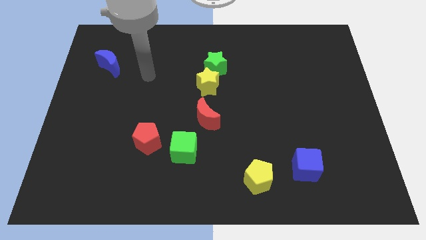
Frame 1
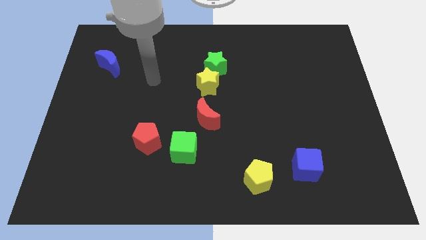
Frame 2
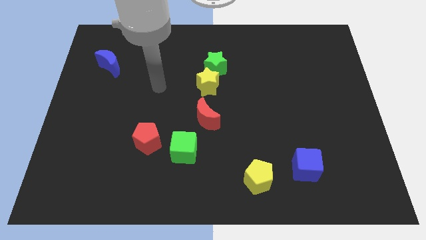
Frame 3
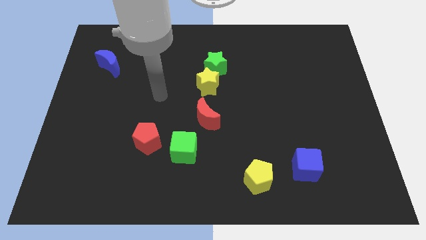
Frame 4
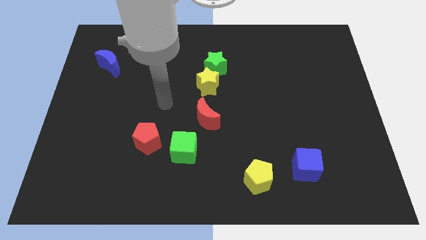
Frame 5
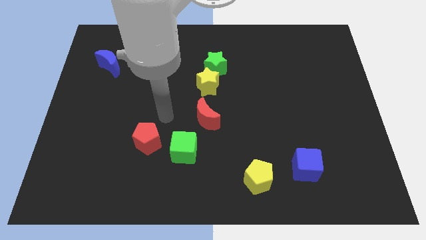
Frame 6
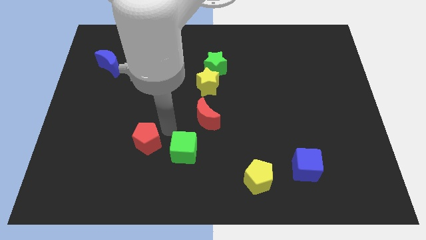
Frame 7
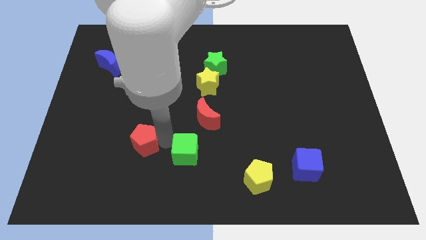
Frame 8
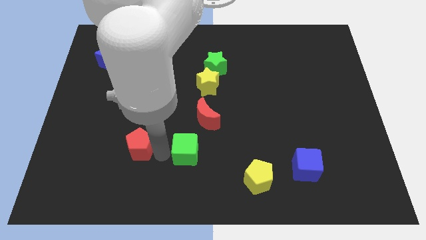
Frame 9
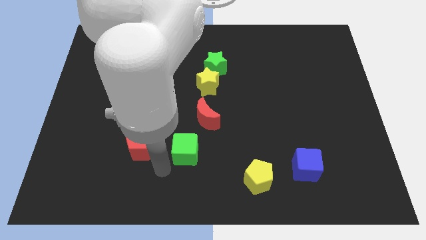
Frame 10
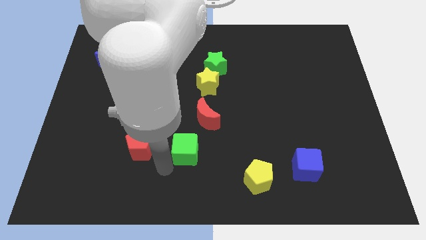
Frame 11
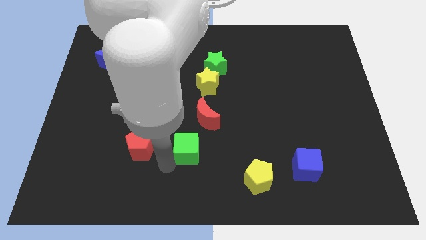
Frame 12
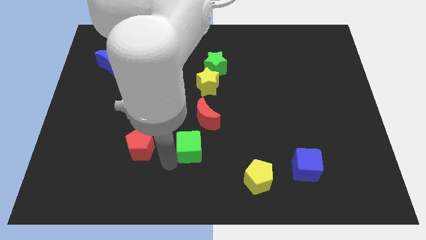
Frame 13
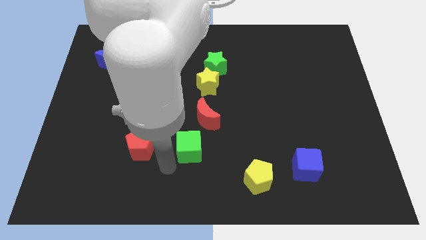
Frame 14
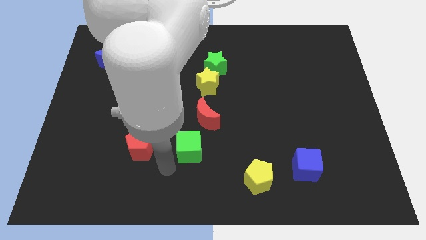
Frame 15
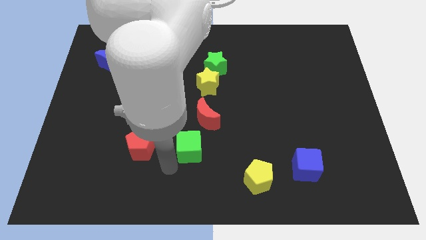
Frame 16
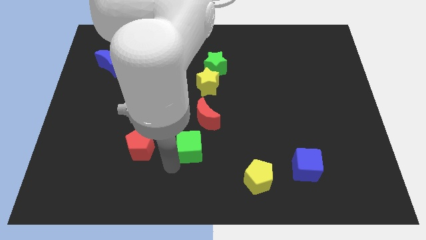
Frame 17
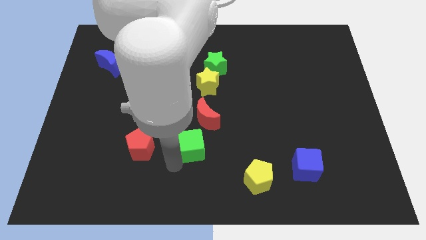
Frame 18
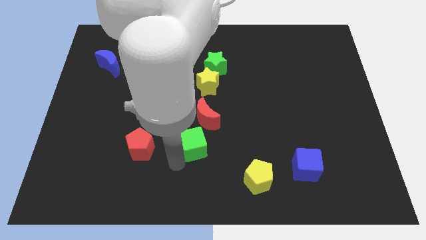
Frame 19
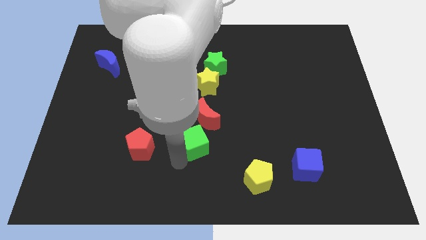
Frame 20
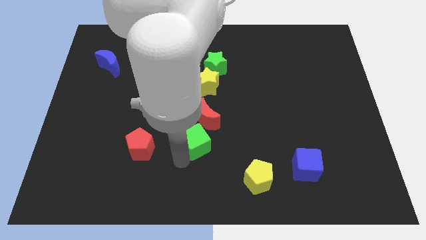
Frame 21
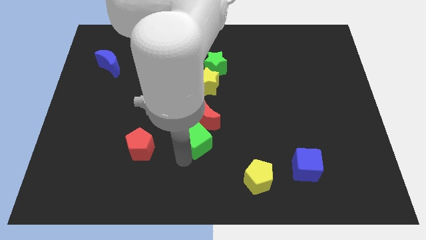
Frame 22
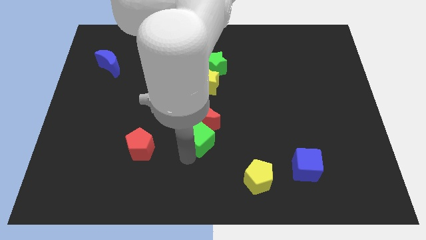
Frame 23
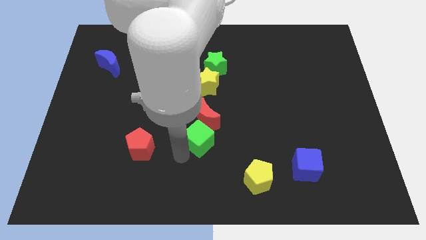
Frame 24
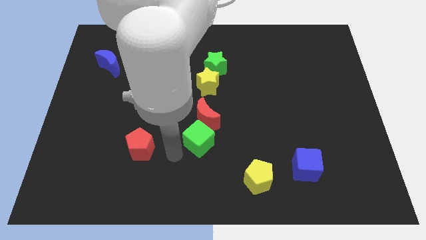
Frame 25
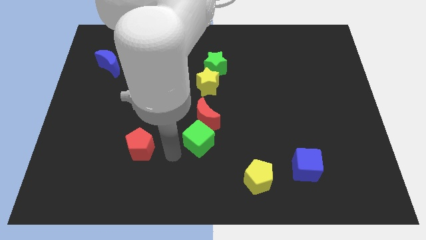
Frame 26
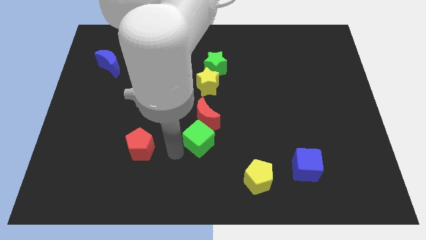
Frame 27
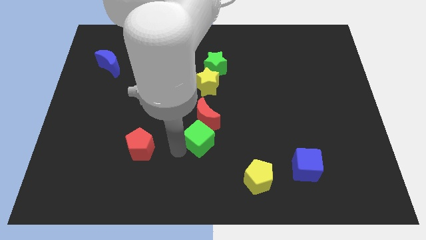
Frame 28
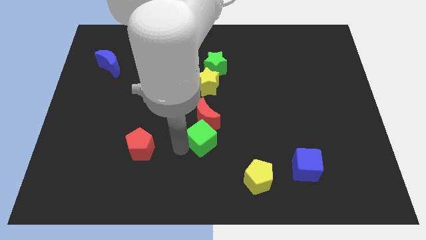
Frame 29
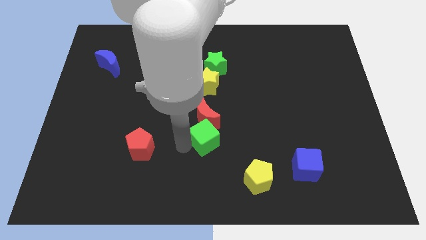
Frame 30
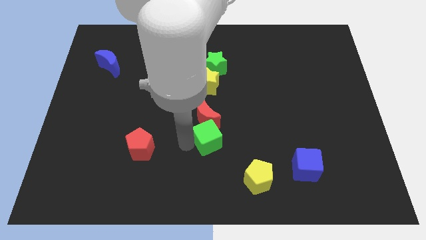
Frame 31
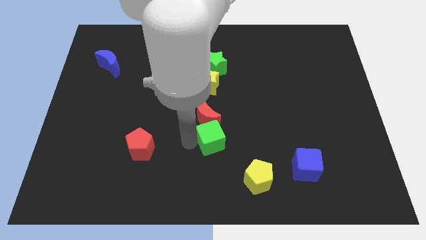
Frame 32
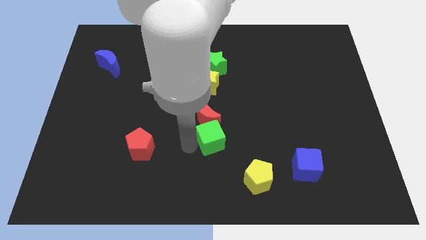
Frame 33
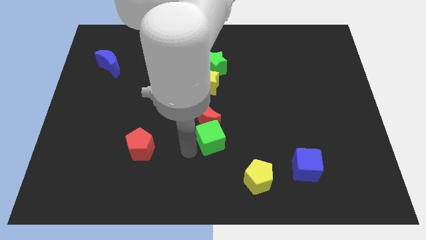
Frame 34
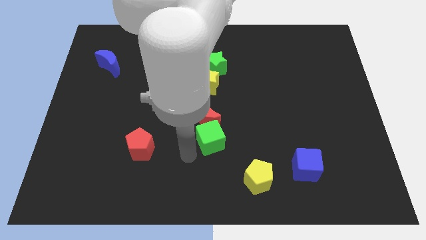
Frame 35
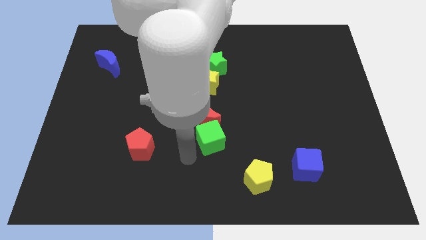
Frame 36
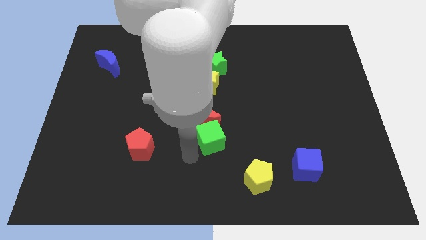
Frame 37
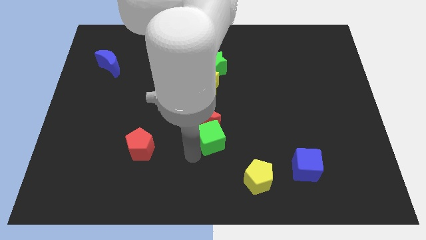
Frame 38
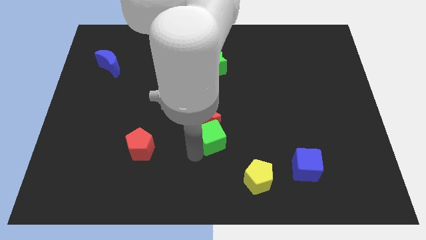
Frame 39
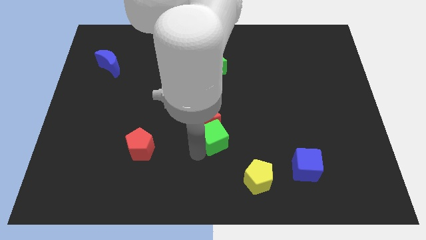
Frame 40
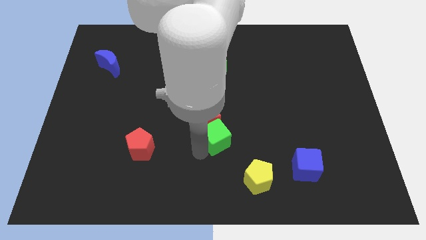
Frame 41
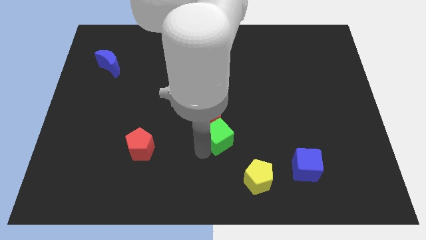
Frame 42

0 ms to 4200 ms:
slightly slide the green cube up and then to the right

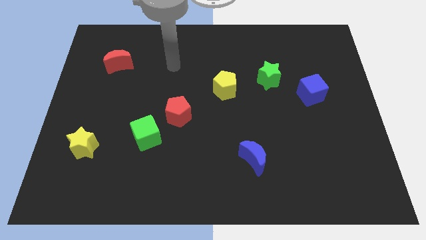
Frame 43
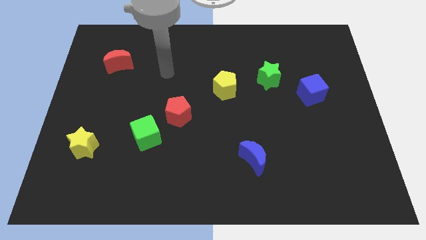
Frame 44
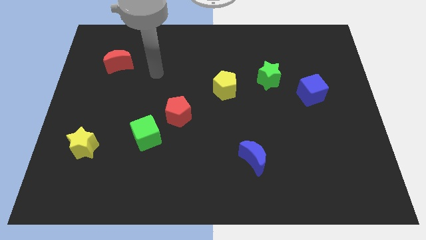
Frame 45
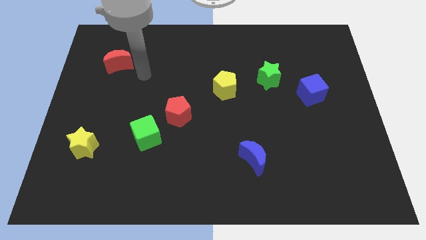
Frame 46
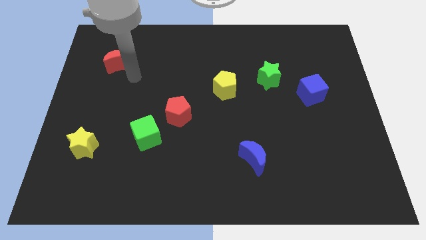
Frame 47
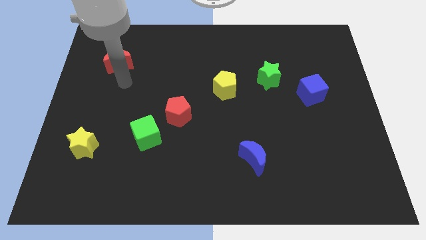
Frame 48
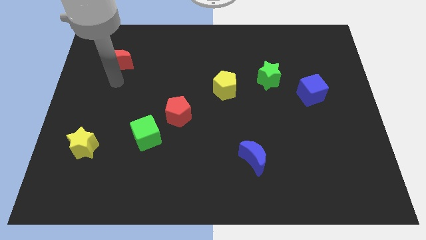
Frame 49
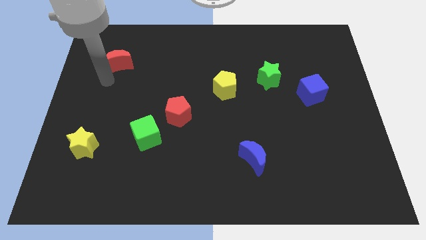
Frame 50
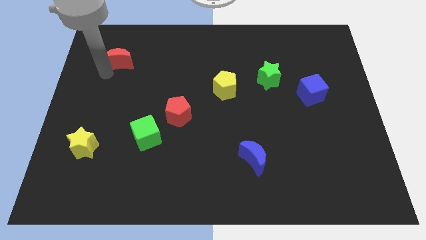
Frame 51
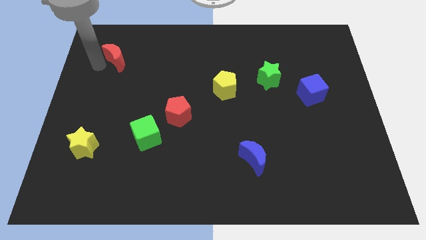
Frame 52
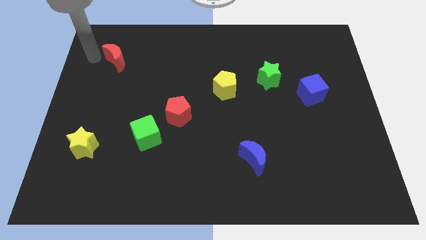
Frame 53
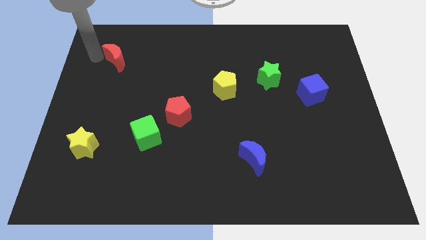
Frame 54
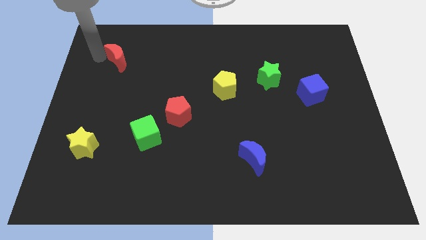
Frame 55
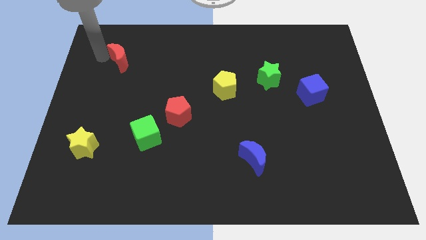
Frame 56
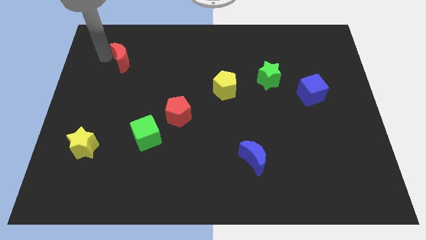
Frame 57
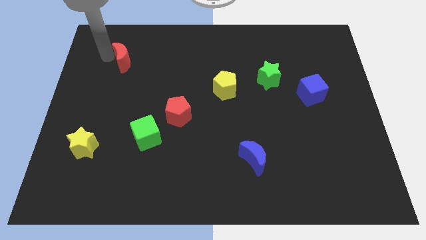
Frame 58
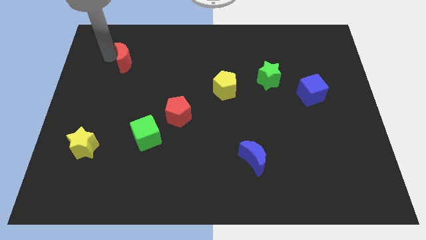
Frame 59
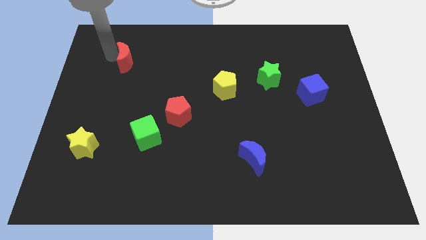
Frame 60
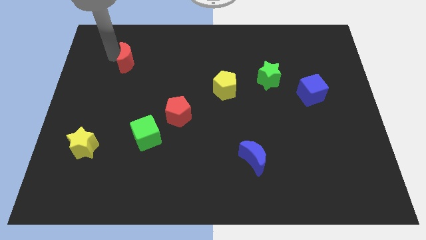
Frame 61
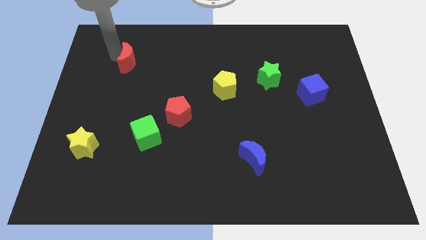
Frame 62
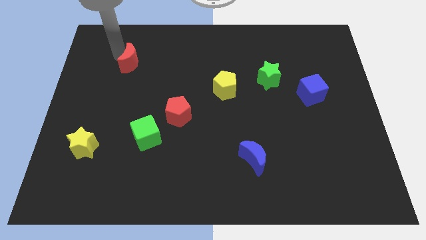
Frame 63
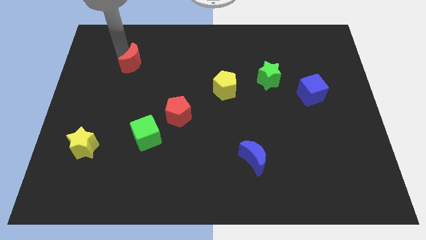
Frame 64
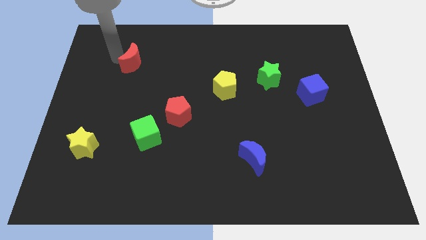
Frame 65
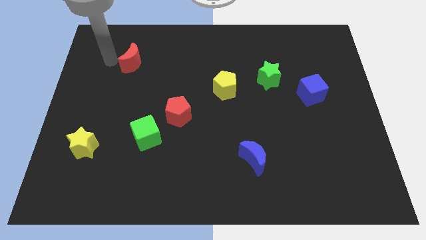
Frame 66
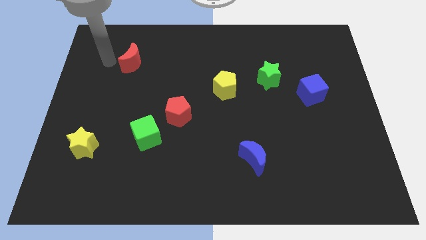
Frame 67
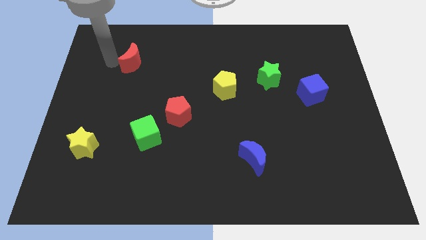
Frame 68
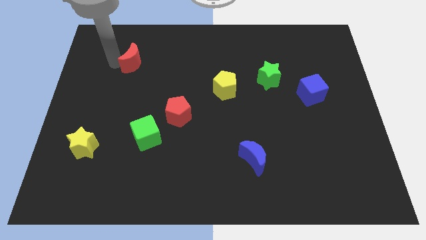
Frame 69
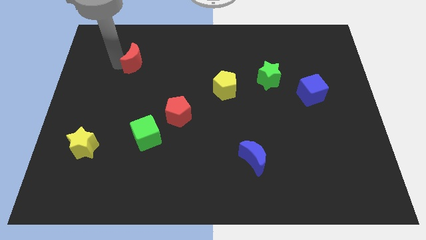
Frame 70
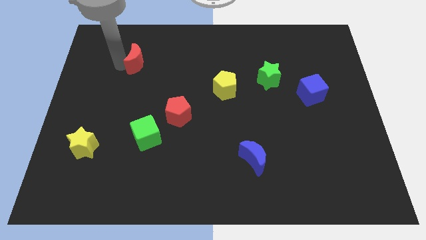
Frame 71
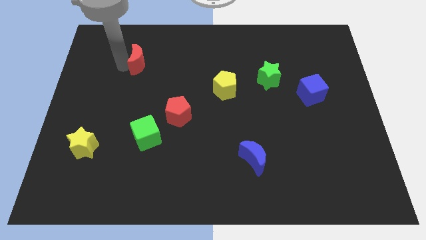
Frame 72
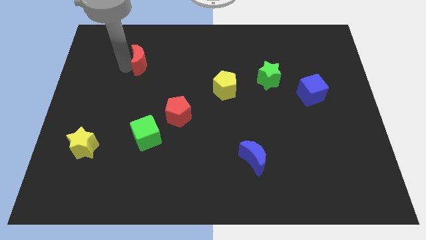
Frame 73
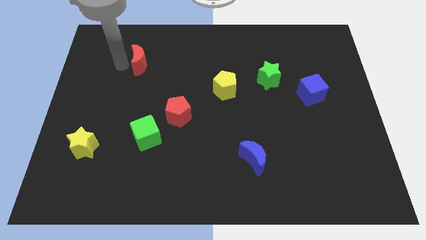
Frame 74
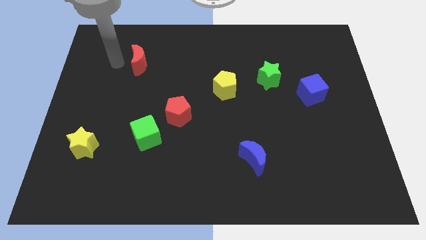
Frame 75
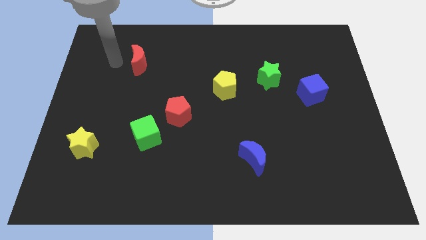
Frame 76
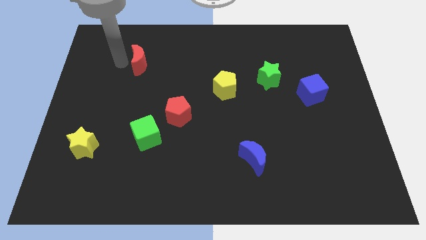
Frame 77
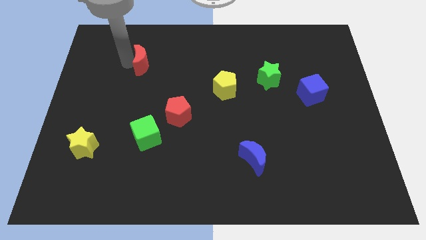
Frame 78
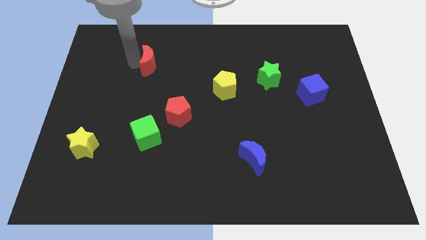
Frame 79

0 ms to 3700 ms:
move the red moon right a bit

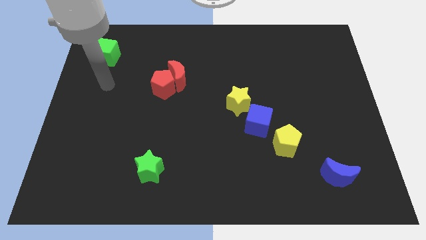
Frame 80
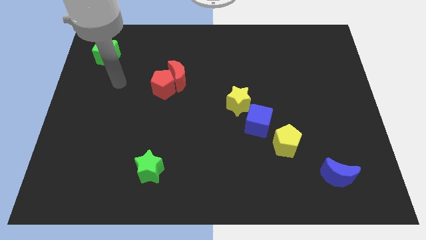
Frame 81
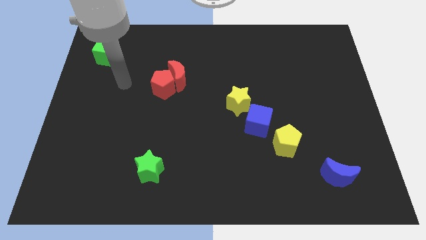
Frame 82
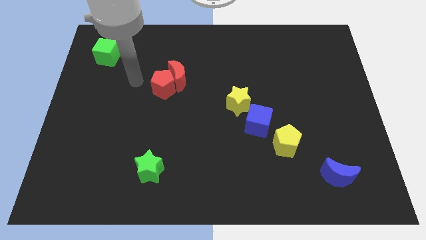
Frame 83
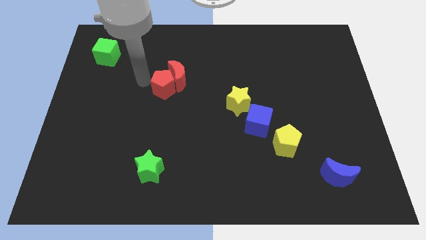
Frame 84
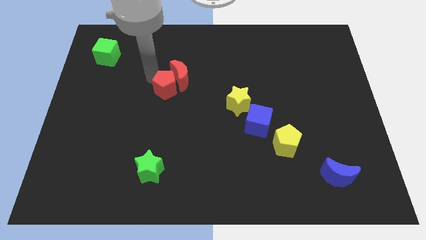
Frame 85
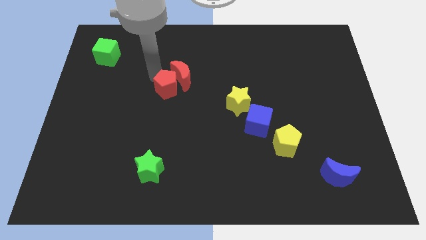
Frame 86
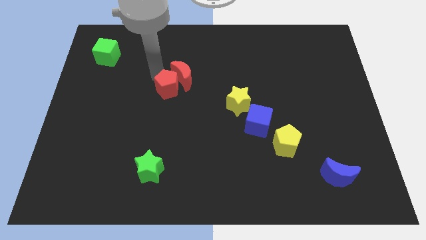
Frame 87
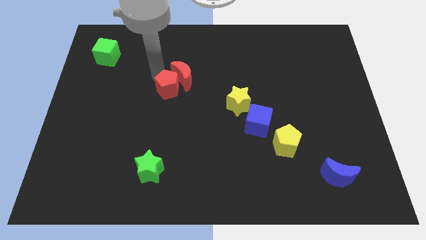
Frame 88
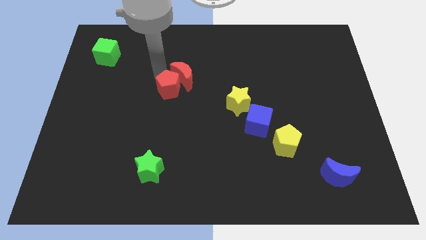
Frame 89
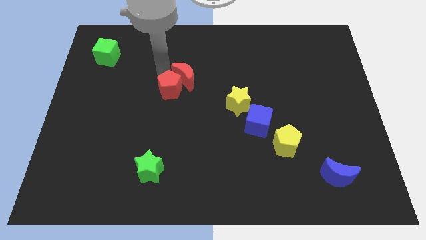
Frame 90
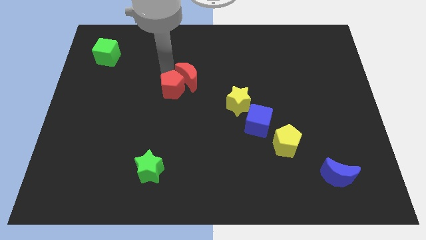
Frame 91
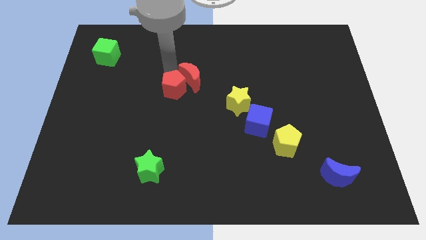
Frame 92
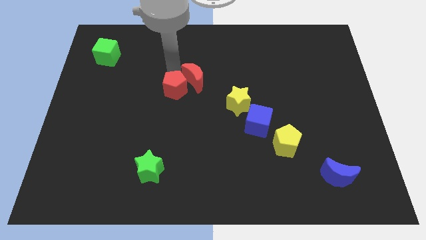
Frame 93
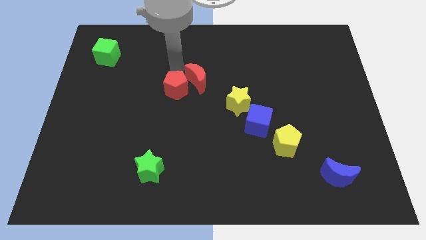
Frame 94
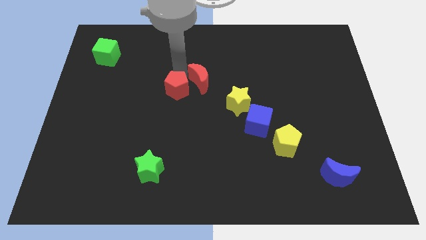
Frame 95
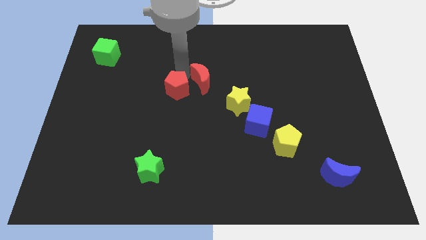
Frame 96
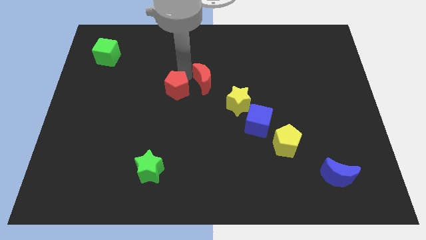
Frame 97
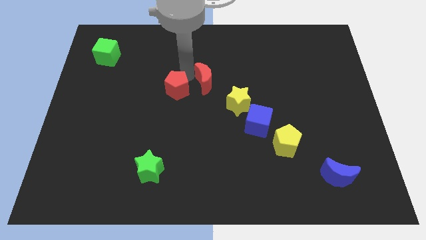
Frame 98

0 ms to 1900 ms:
slightly push the red moon to the right
